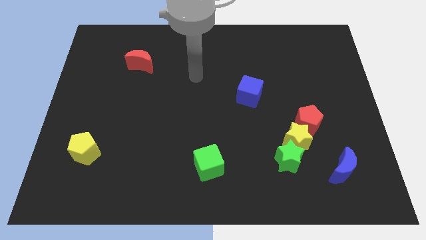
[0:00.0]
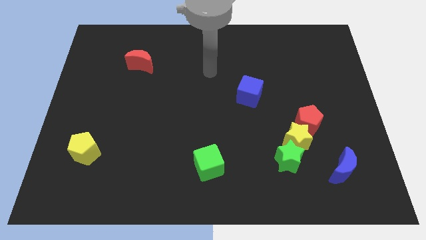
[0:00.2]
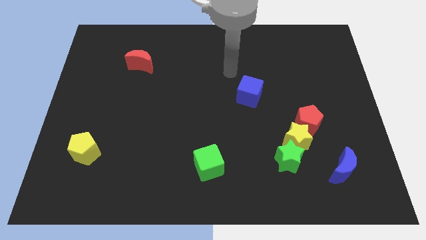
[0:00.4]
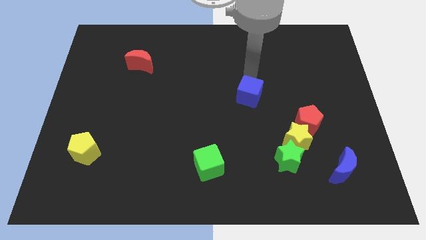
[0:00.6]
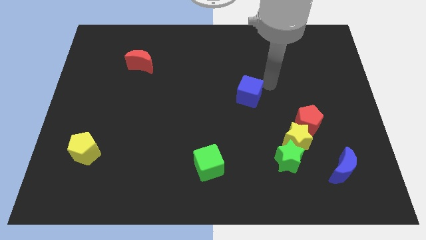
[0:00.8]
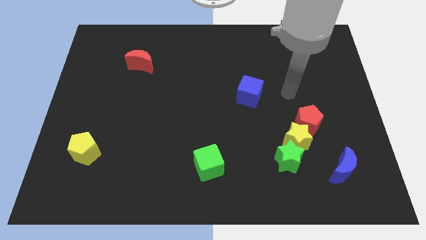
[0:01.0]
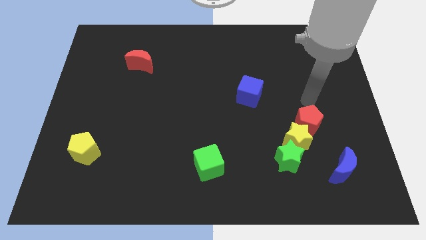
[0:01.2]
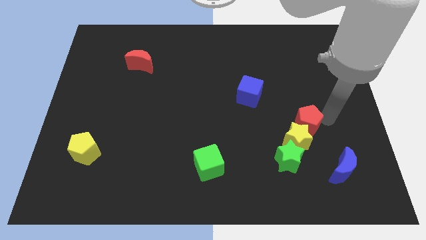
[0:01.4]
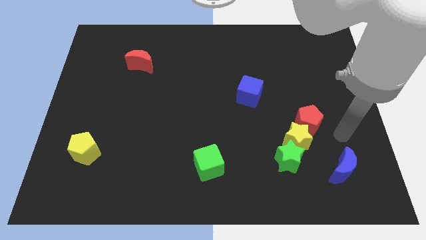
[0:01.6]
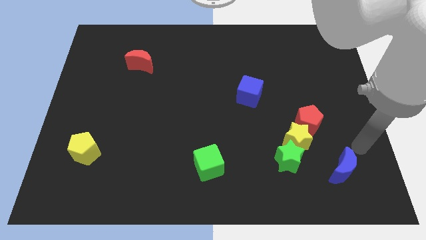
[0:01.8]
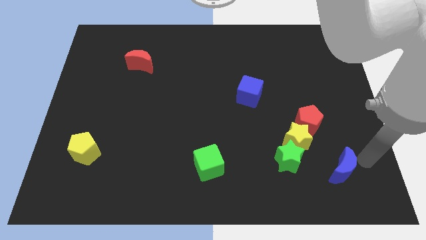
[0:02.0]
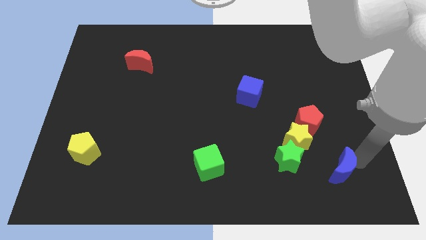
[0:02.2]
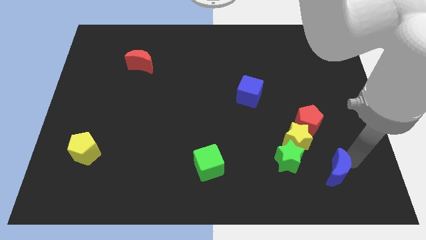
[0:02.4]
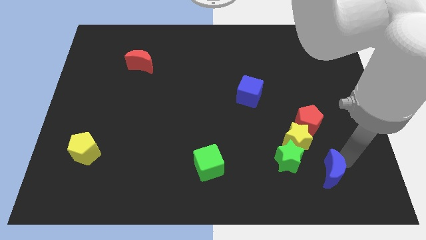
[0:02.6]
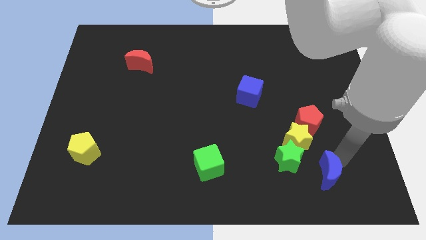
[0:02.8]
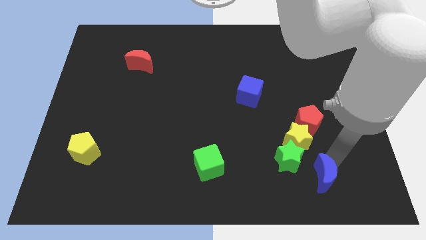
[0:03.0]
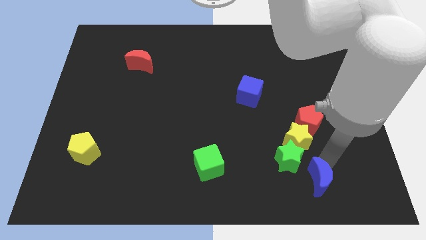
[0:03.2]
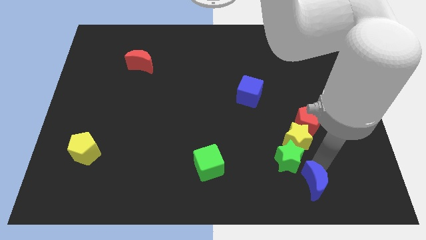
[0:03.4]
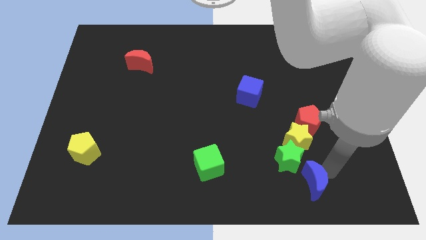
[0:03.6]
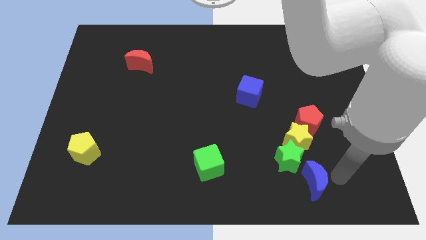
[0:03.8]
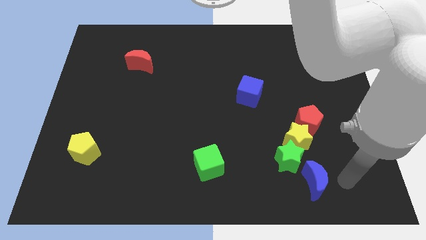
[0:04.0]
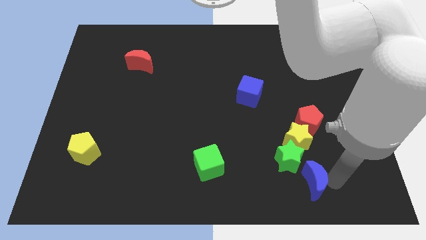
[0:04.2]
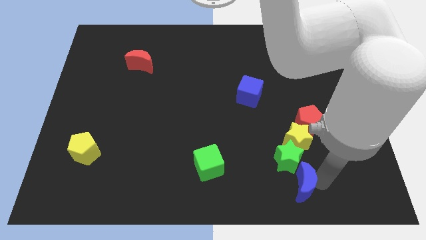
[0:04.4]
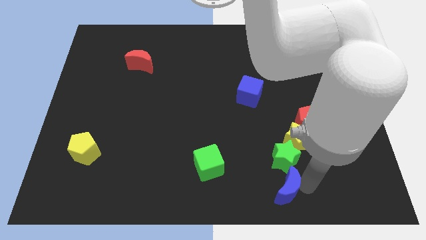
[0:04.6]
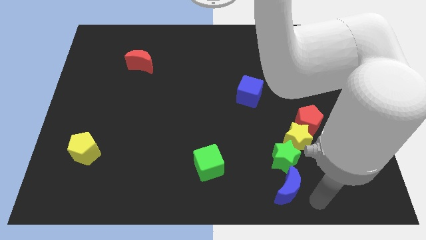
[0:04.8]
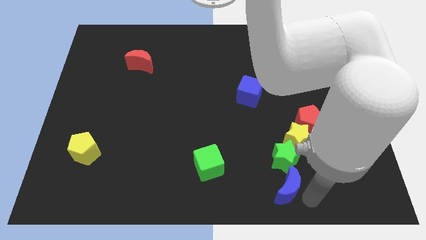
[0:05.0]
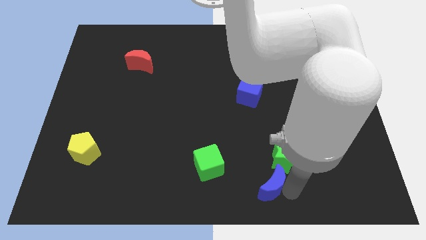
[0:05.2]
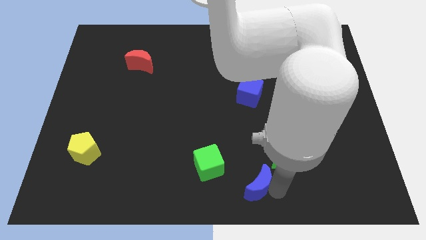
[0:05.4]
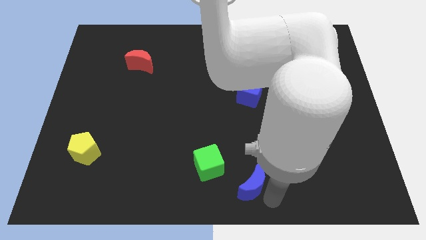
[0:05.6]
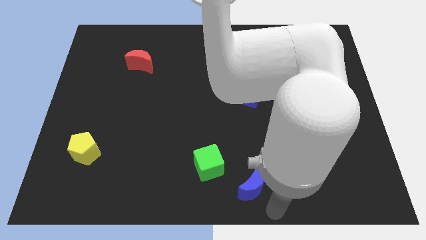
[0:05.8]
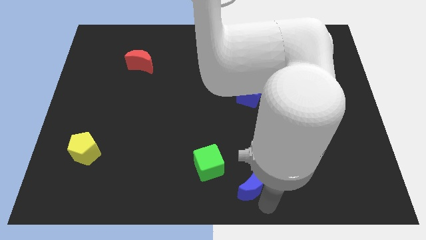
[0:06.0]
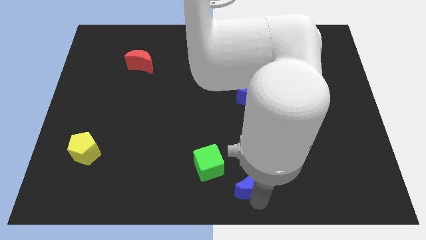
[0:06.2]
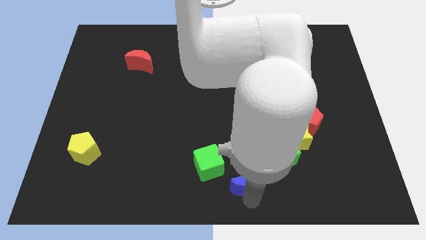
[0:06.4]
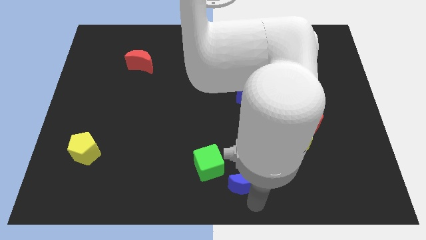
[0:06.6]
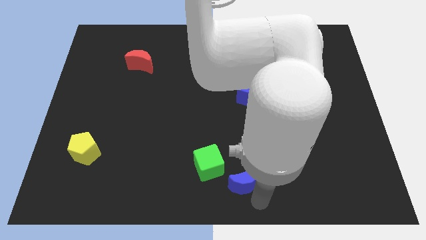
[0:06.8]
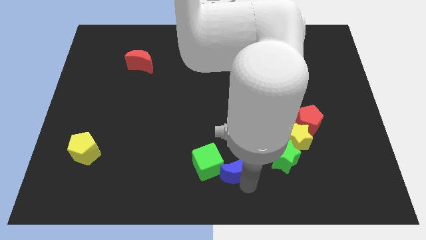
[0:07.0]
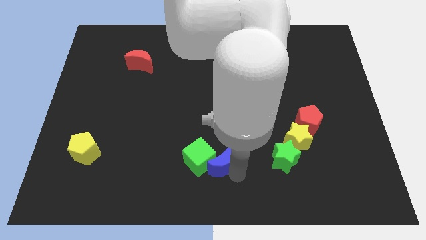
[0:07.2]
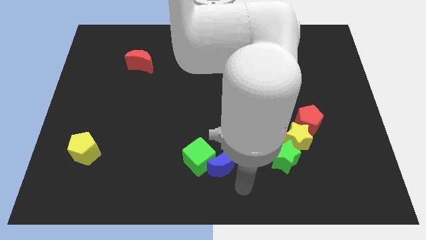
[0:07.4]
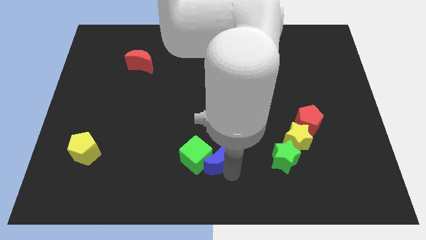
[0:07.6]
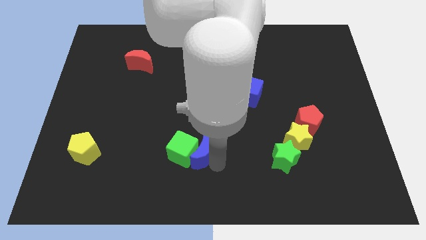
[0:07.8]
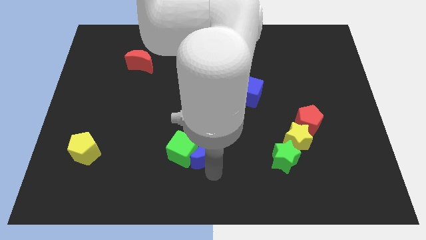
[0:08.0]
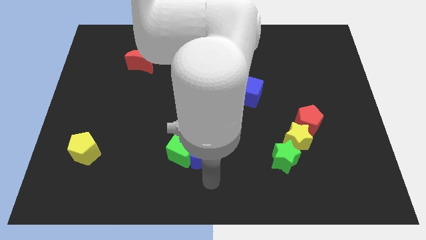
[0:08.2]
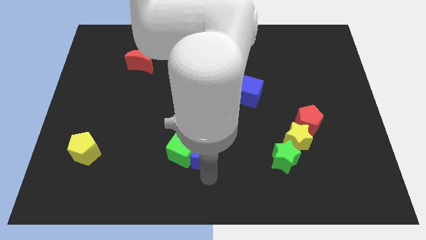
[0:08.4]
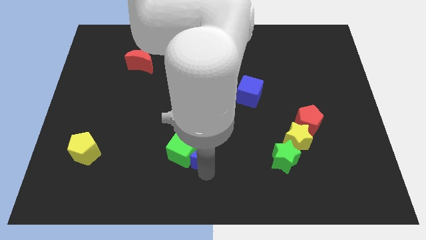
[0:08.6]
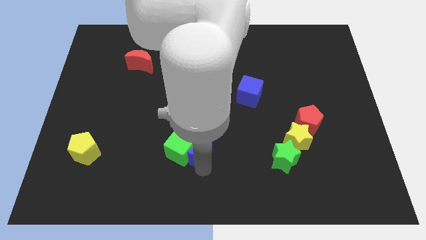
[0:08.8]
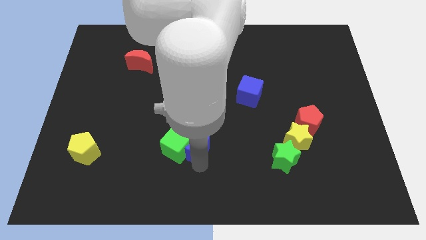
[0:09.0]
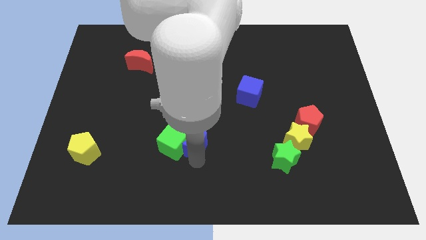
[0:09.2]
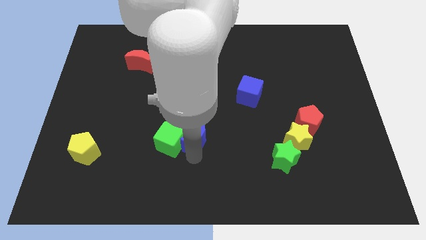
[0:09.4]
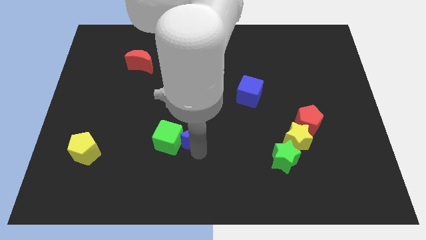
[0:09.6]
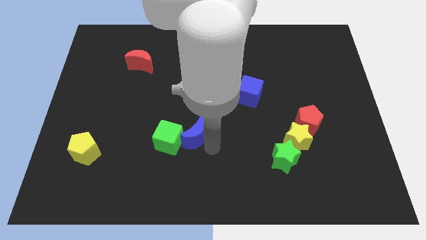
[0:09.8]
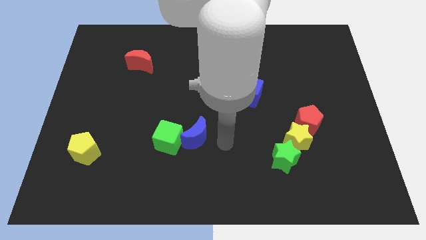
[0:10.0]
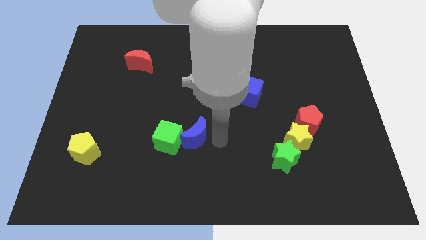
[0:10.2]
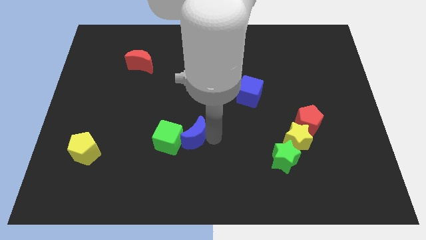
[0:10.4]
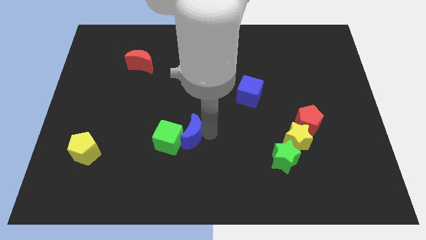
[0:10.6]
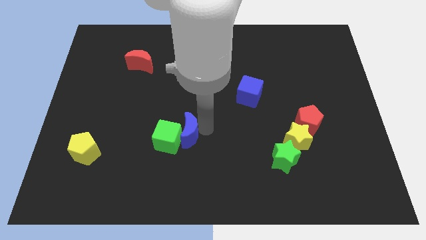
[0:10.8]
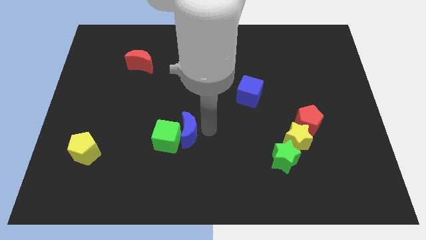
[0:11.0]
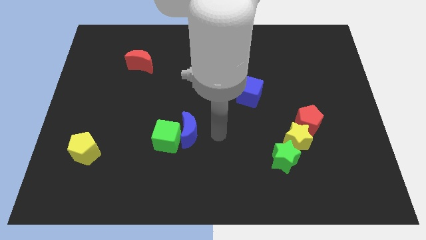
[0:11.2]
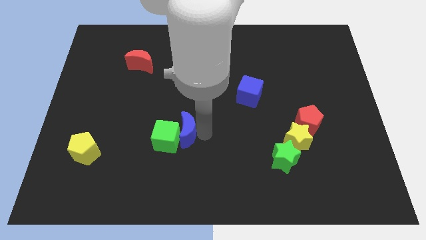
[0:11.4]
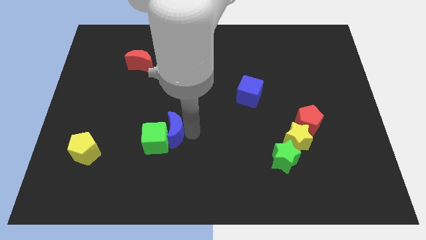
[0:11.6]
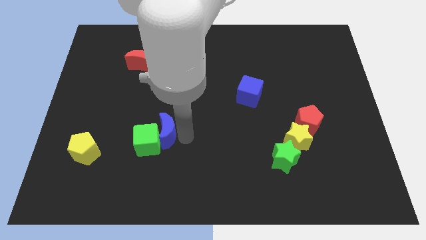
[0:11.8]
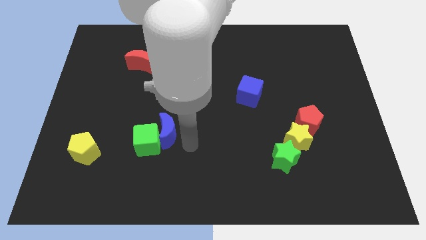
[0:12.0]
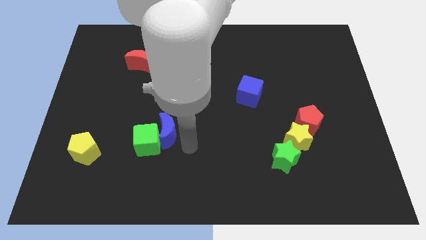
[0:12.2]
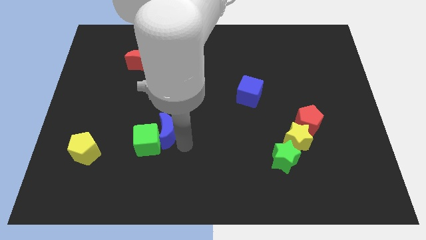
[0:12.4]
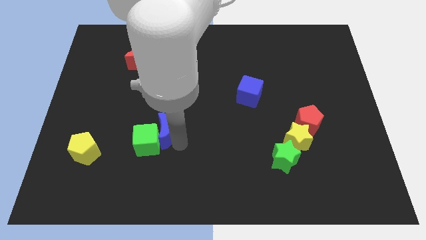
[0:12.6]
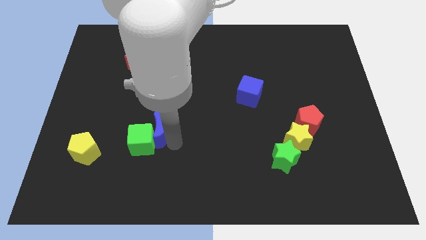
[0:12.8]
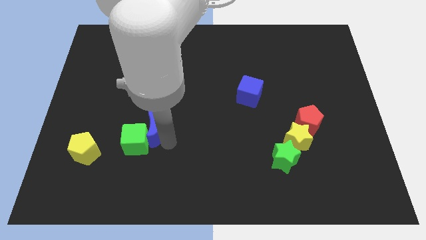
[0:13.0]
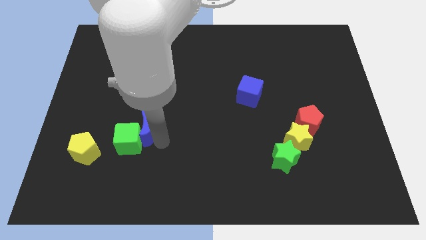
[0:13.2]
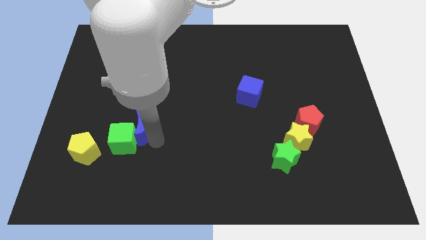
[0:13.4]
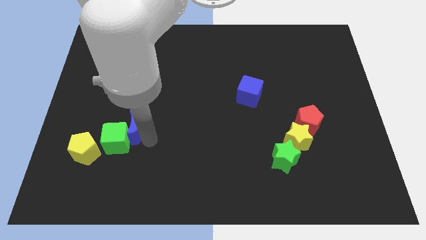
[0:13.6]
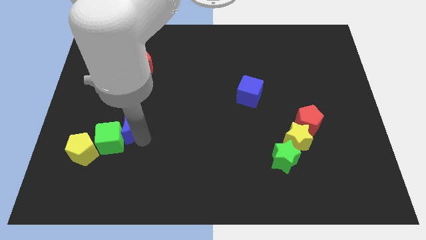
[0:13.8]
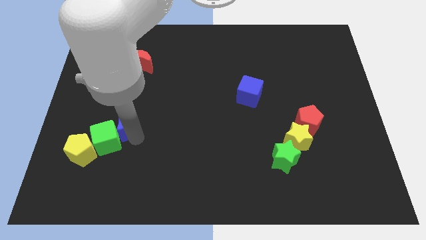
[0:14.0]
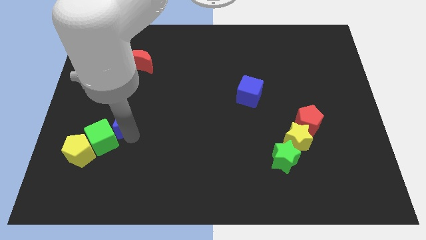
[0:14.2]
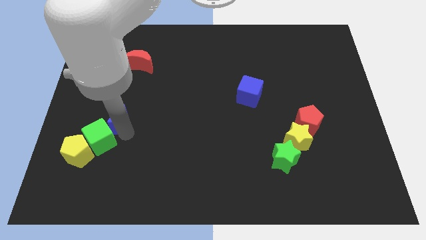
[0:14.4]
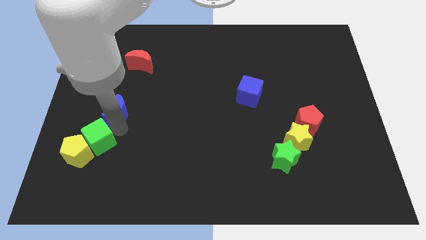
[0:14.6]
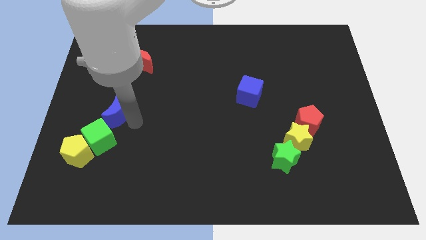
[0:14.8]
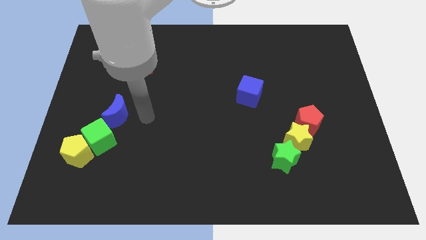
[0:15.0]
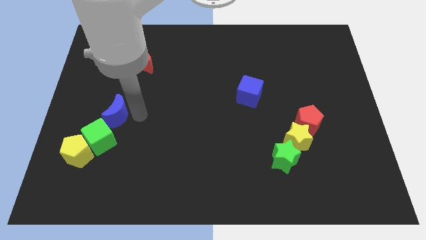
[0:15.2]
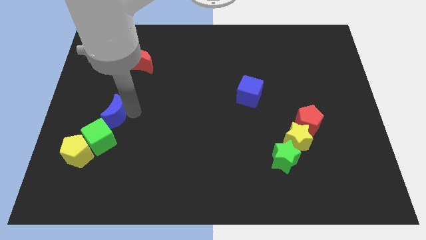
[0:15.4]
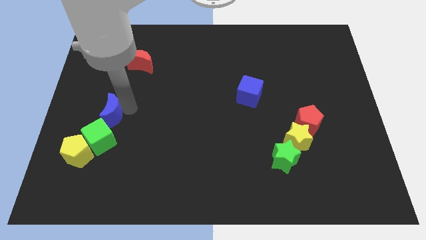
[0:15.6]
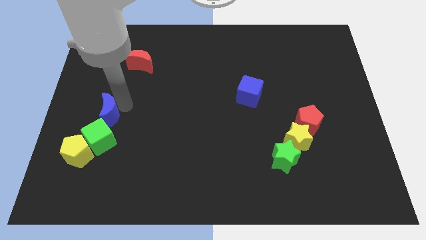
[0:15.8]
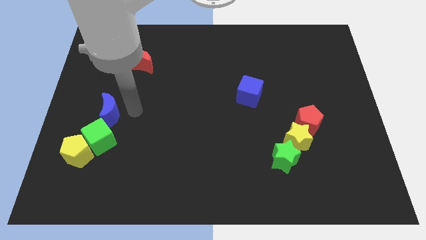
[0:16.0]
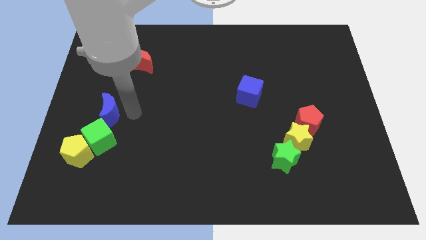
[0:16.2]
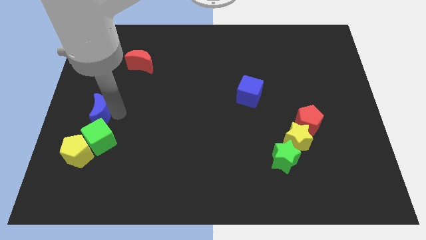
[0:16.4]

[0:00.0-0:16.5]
slide the blue moon to the left side of the board
